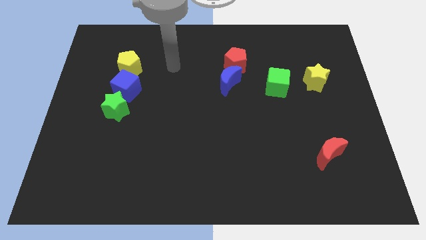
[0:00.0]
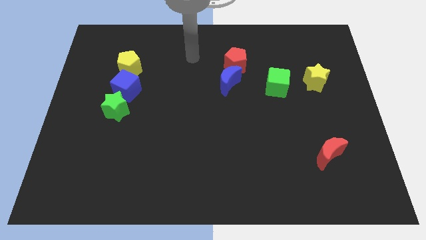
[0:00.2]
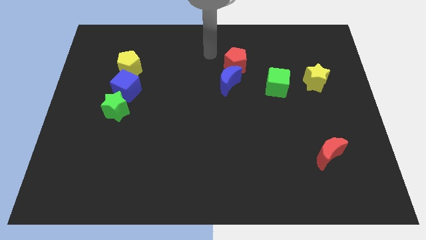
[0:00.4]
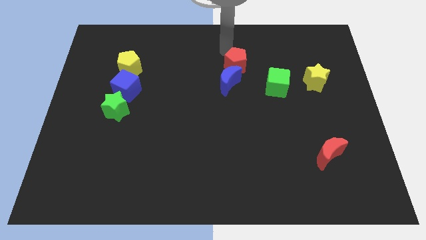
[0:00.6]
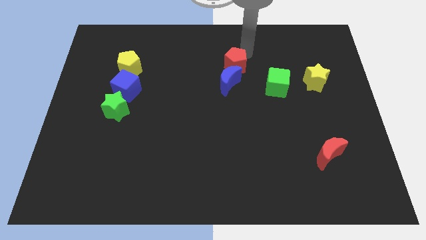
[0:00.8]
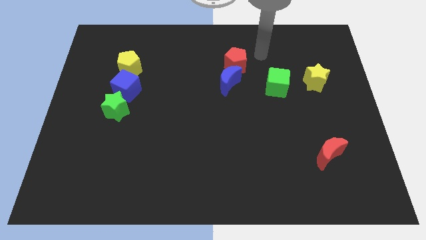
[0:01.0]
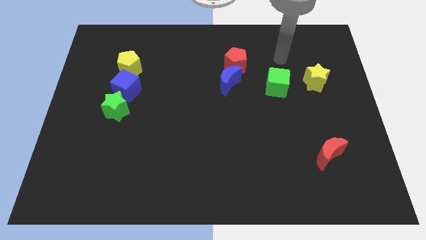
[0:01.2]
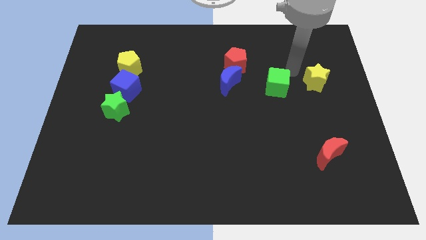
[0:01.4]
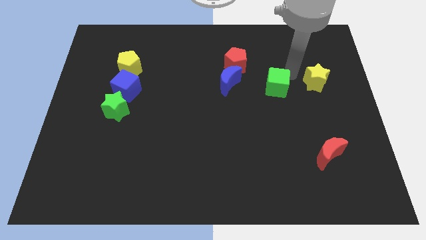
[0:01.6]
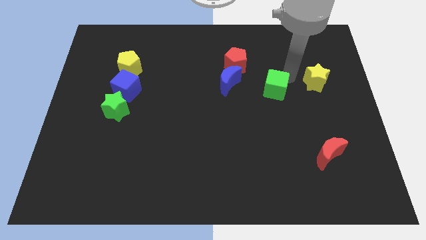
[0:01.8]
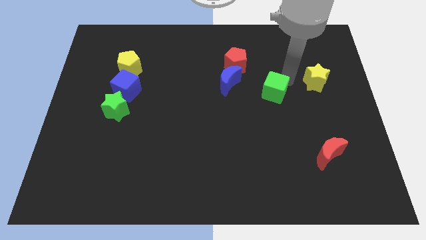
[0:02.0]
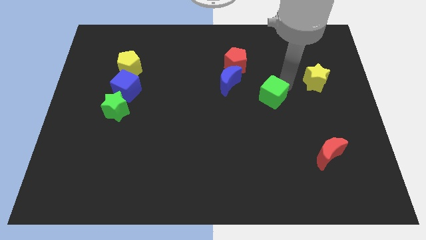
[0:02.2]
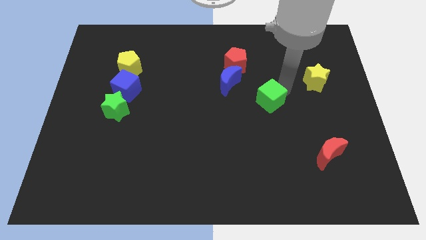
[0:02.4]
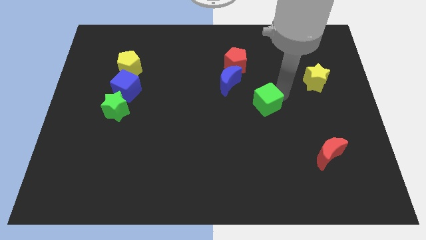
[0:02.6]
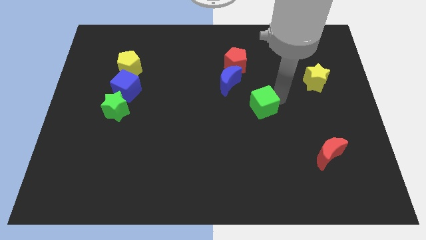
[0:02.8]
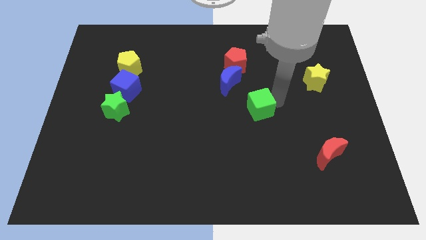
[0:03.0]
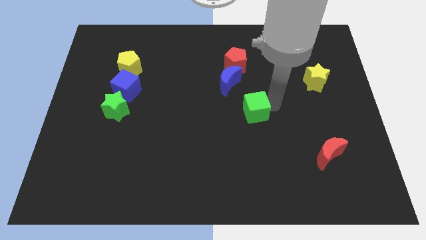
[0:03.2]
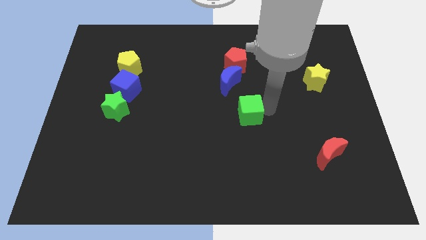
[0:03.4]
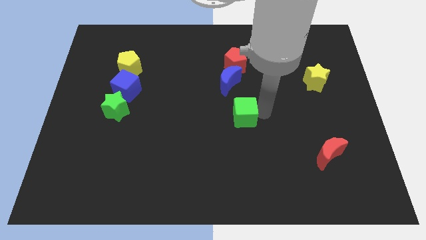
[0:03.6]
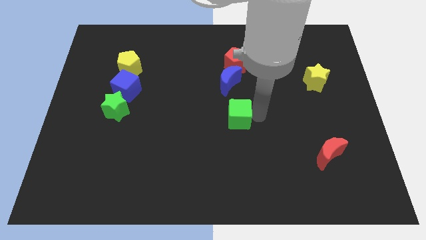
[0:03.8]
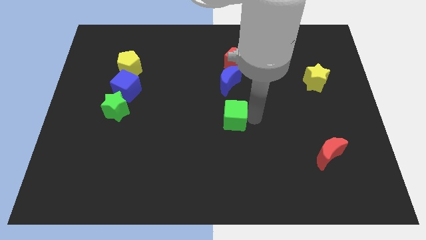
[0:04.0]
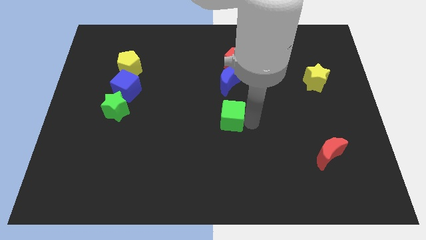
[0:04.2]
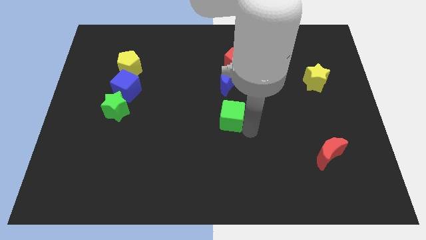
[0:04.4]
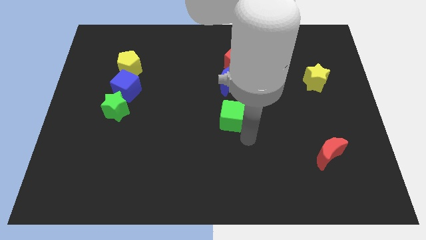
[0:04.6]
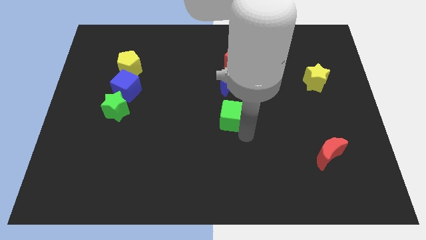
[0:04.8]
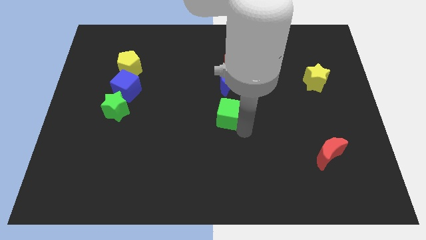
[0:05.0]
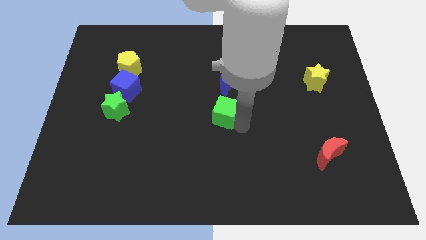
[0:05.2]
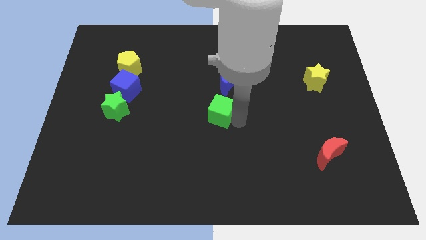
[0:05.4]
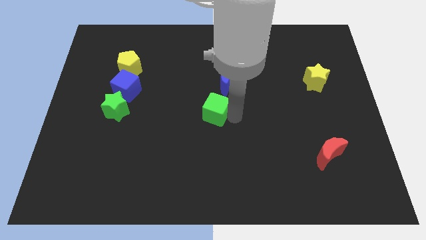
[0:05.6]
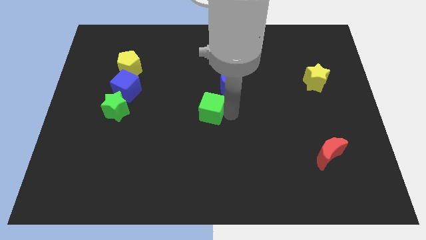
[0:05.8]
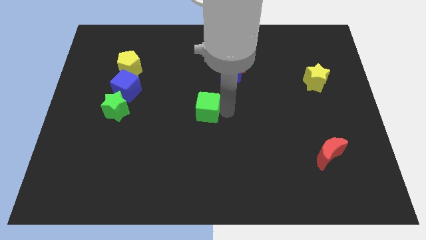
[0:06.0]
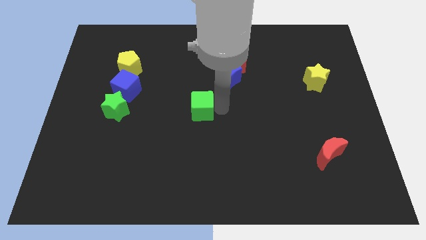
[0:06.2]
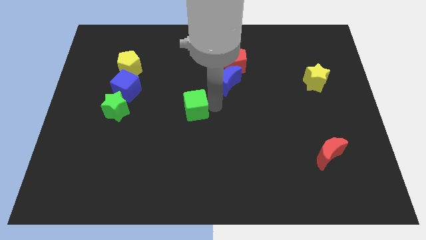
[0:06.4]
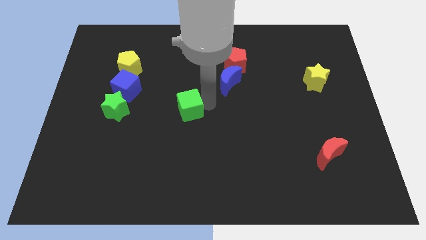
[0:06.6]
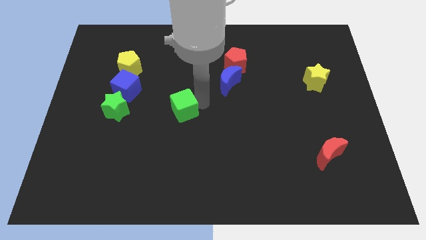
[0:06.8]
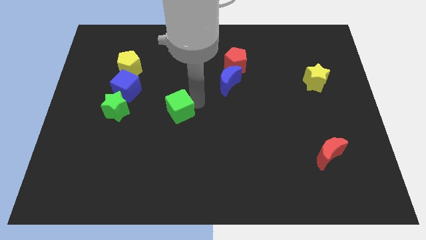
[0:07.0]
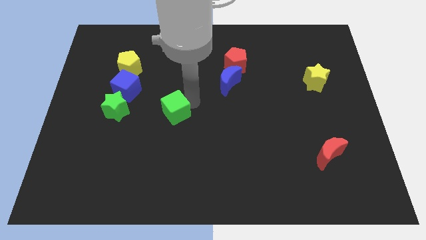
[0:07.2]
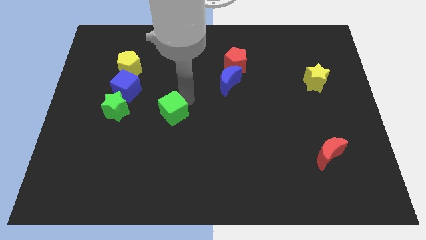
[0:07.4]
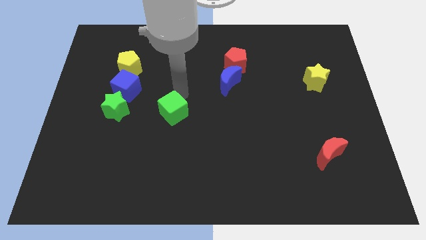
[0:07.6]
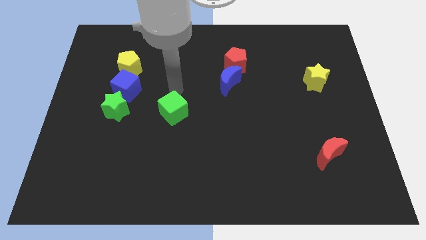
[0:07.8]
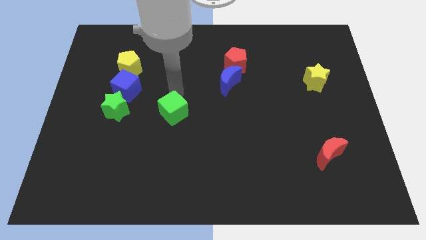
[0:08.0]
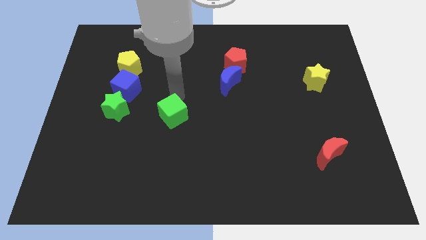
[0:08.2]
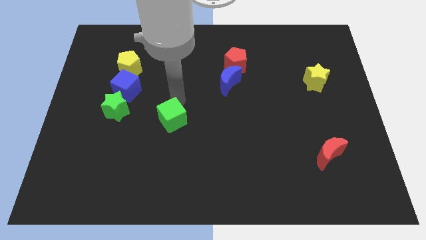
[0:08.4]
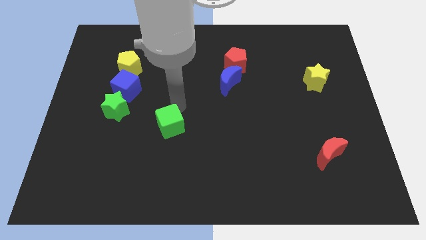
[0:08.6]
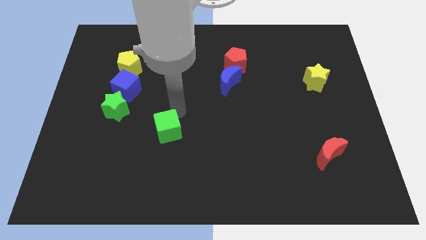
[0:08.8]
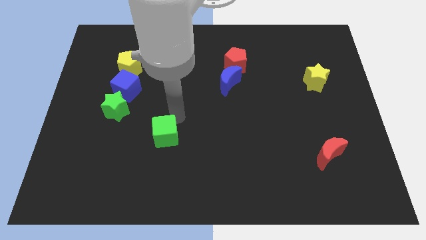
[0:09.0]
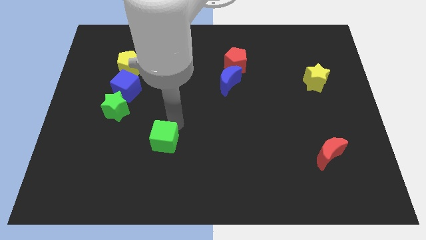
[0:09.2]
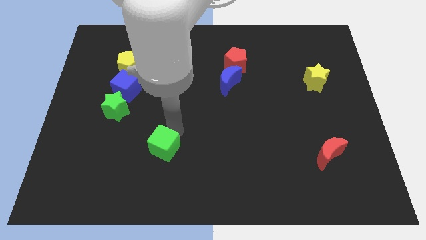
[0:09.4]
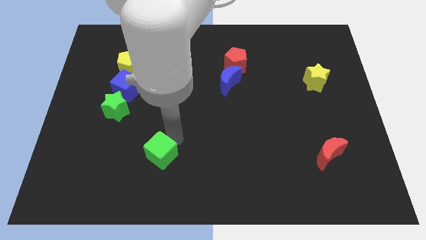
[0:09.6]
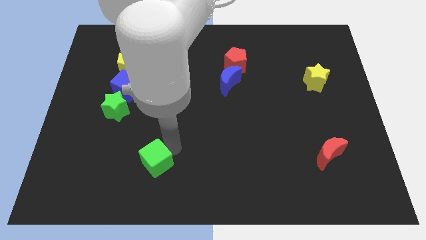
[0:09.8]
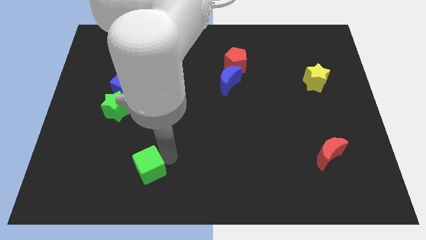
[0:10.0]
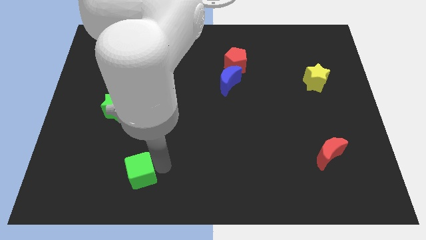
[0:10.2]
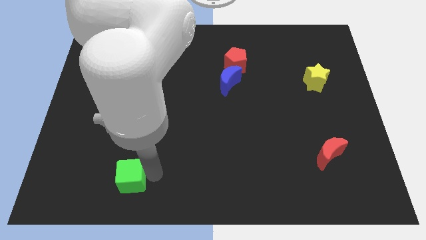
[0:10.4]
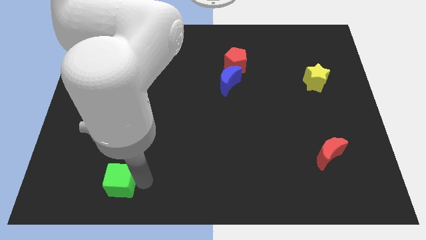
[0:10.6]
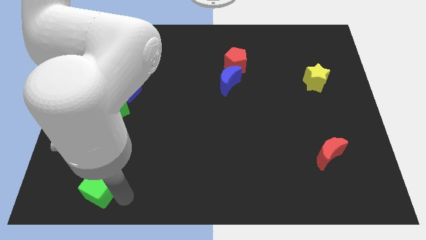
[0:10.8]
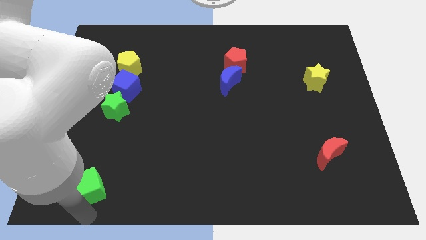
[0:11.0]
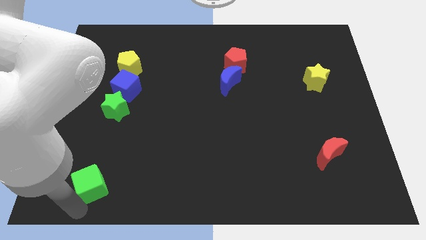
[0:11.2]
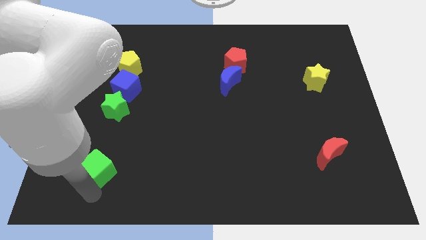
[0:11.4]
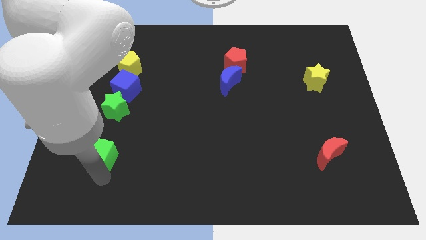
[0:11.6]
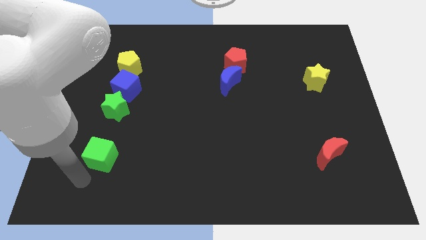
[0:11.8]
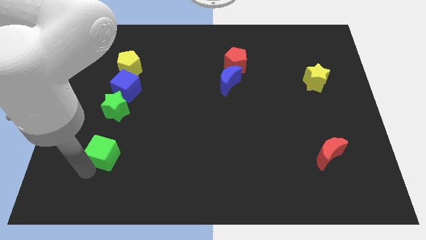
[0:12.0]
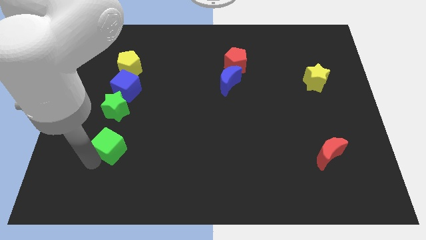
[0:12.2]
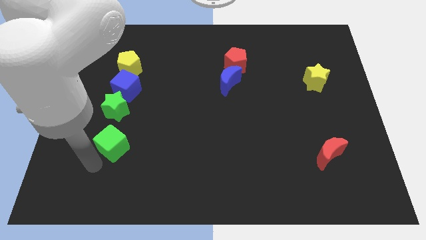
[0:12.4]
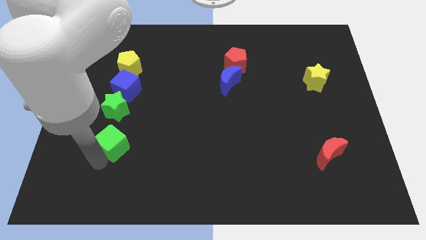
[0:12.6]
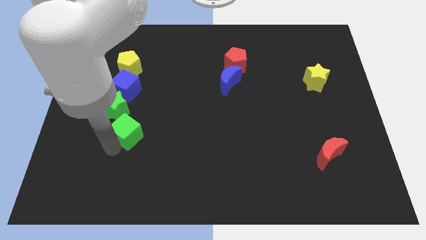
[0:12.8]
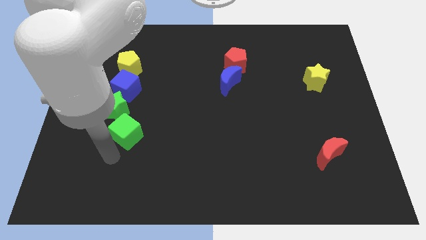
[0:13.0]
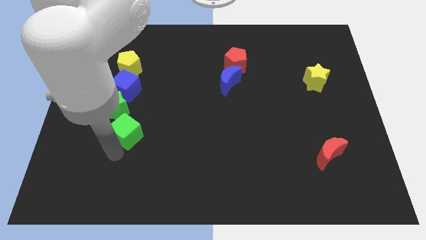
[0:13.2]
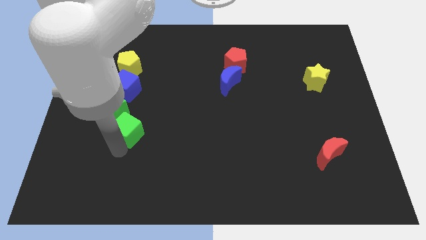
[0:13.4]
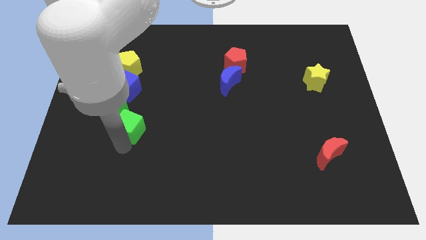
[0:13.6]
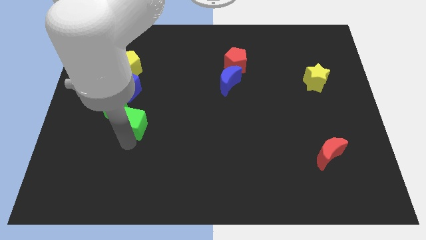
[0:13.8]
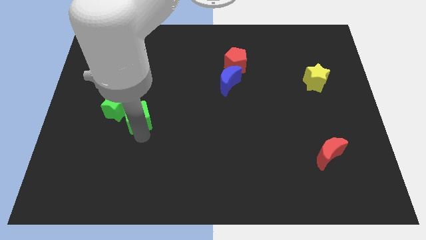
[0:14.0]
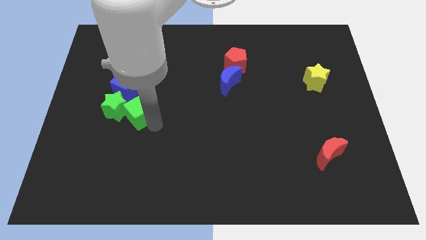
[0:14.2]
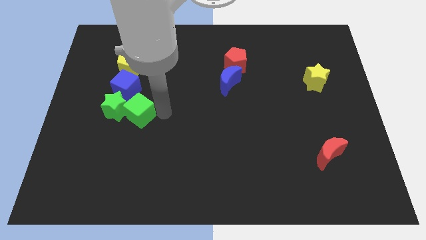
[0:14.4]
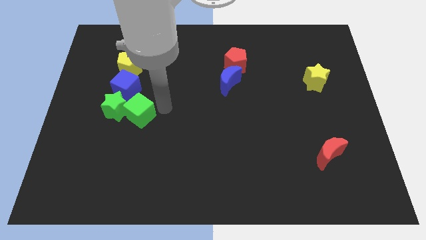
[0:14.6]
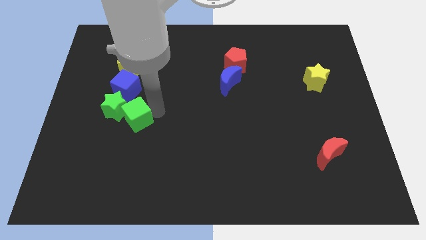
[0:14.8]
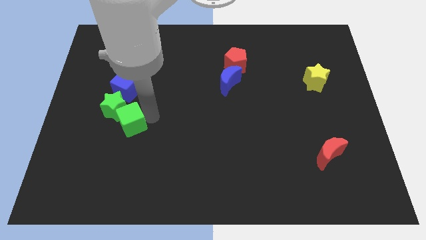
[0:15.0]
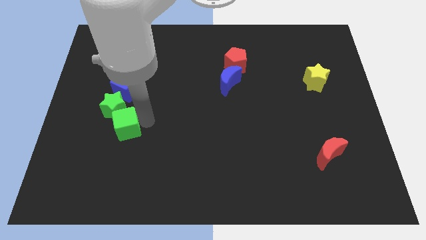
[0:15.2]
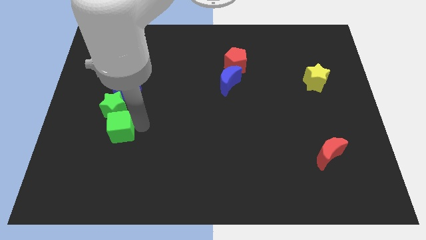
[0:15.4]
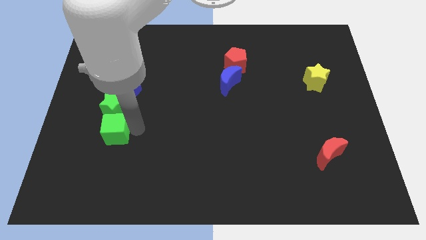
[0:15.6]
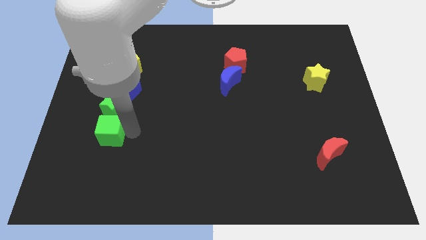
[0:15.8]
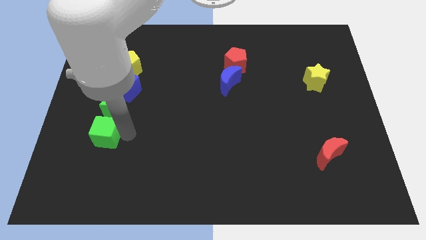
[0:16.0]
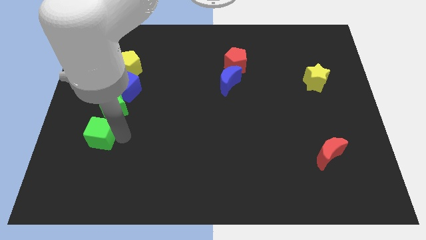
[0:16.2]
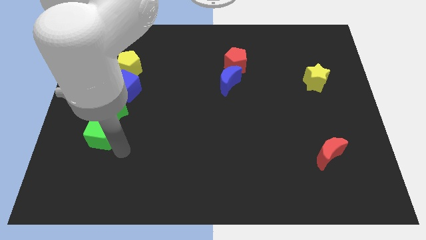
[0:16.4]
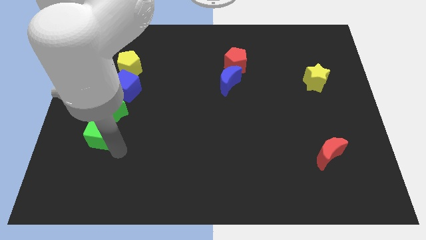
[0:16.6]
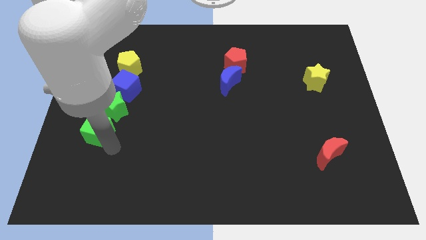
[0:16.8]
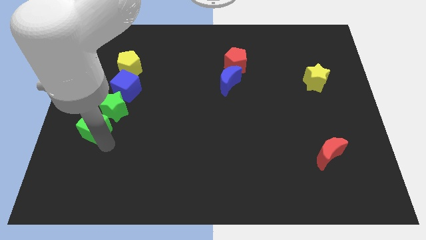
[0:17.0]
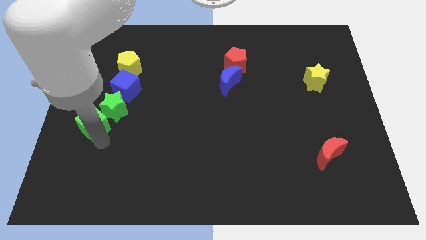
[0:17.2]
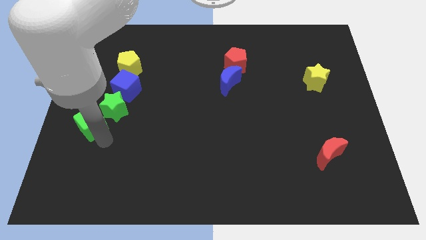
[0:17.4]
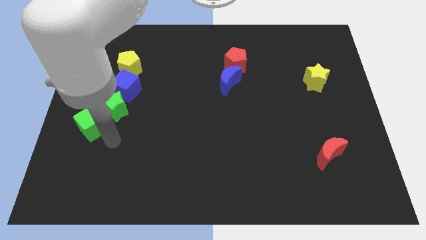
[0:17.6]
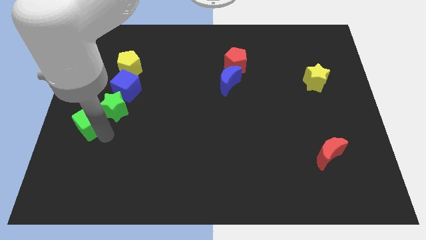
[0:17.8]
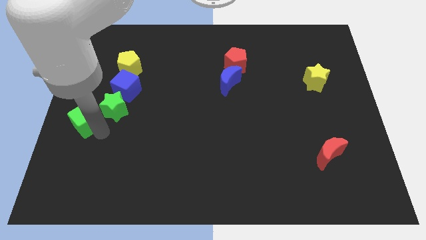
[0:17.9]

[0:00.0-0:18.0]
push the green cube diagonally down and to the left of the blue cube
